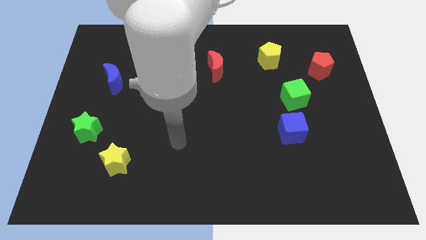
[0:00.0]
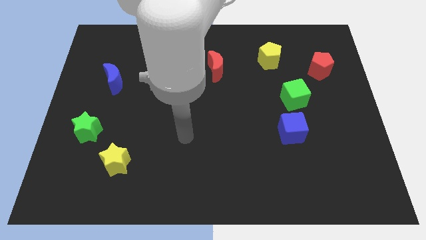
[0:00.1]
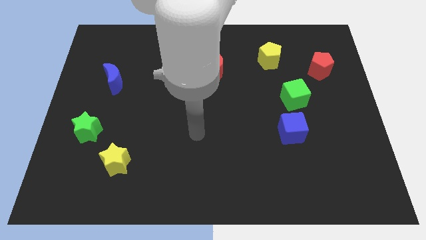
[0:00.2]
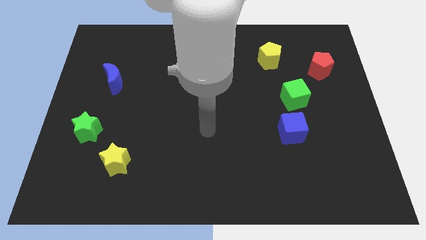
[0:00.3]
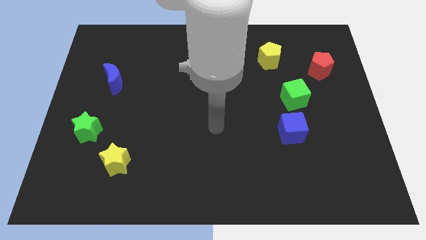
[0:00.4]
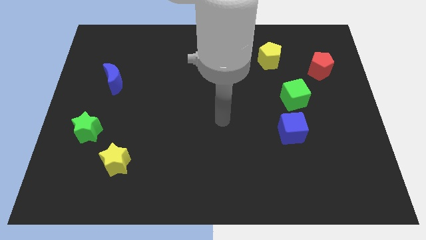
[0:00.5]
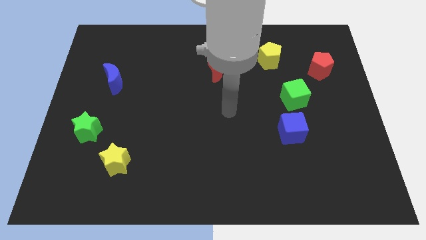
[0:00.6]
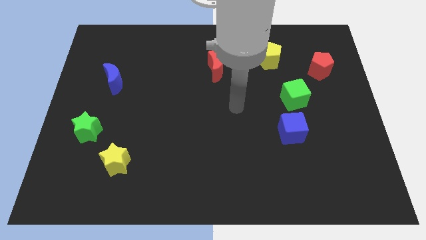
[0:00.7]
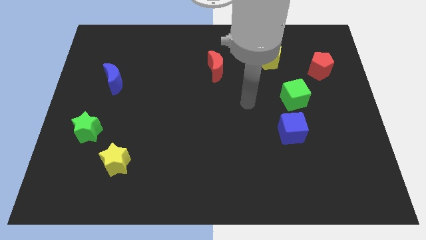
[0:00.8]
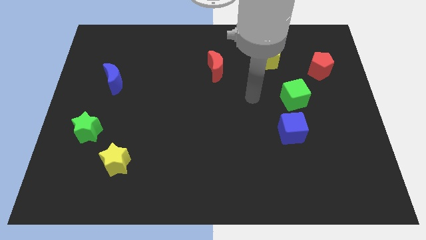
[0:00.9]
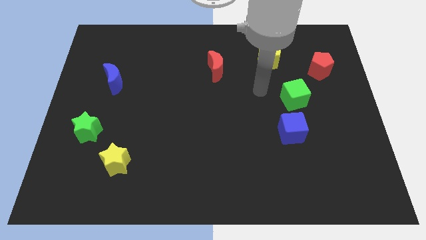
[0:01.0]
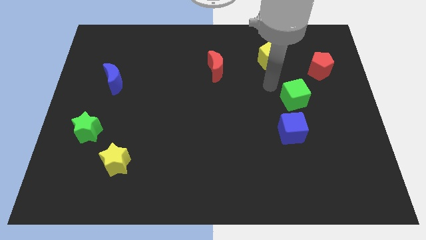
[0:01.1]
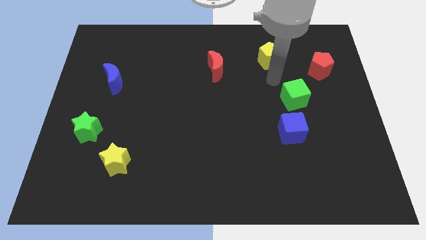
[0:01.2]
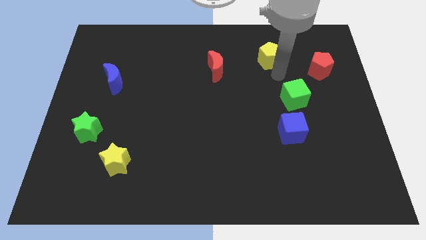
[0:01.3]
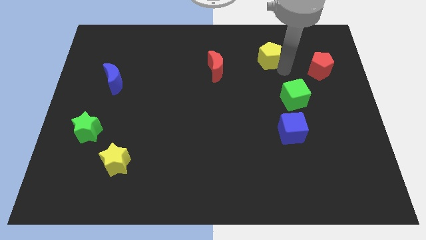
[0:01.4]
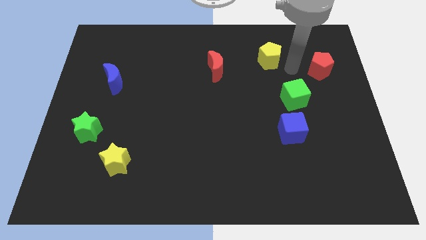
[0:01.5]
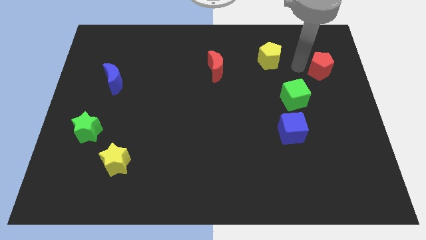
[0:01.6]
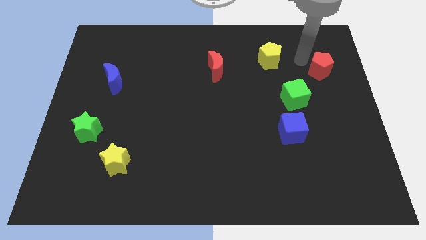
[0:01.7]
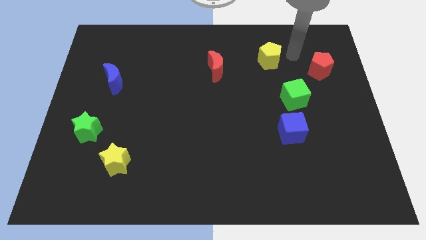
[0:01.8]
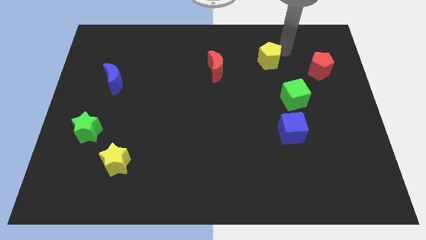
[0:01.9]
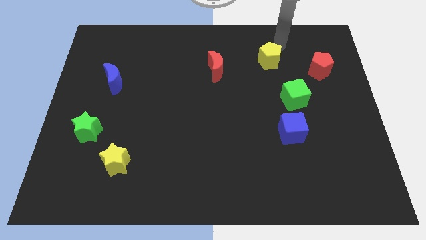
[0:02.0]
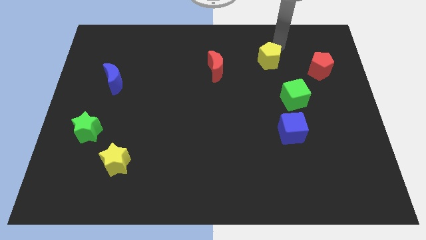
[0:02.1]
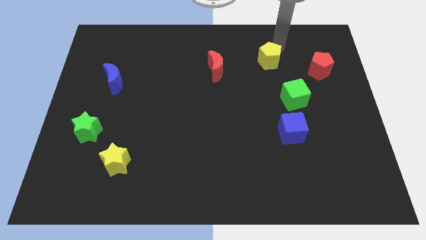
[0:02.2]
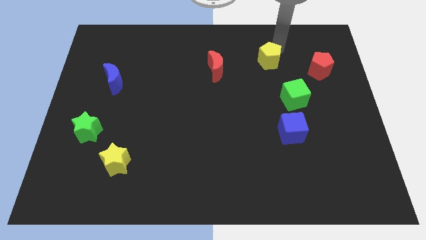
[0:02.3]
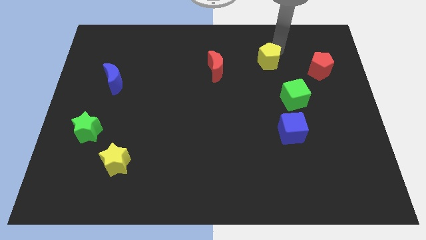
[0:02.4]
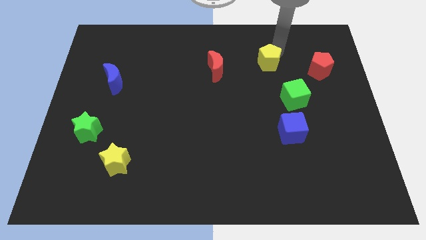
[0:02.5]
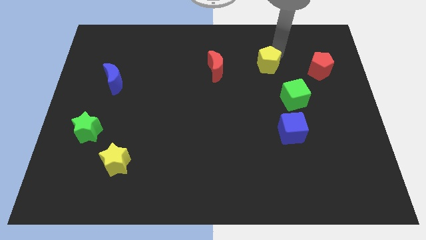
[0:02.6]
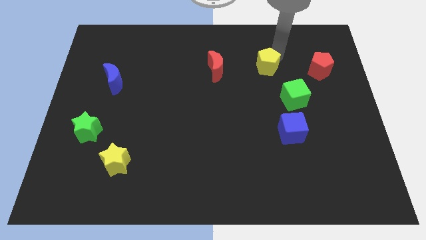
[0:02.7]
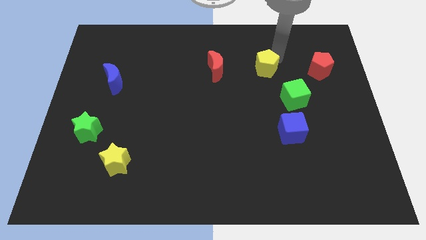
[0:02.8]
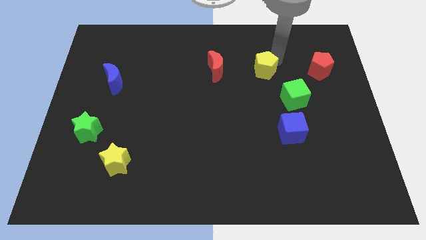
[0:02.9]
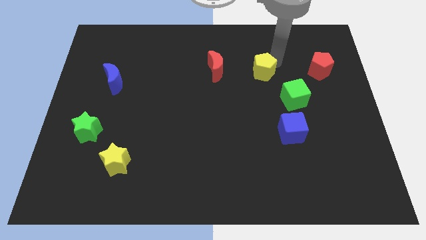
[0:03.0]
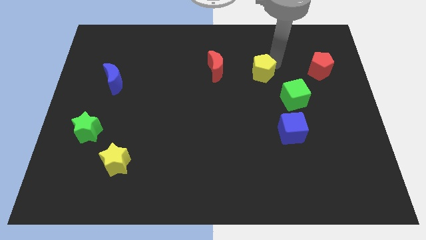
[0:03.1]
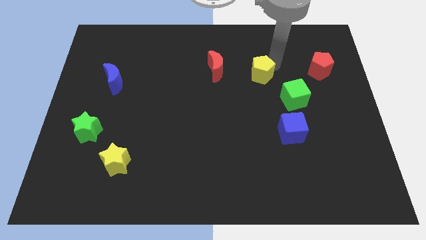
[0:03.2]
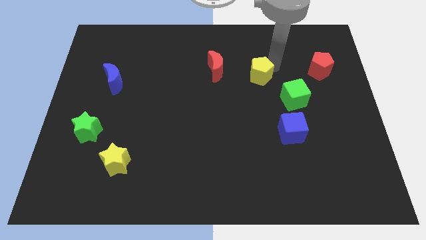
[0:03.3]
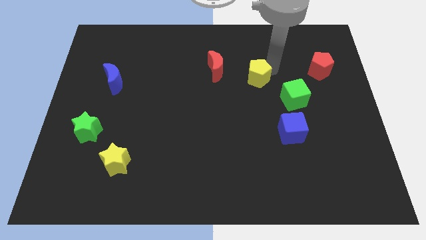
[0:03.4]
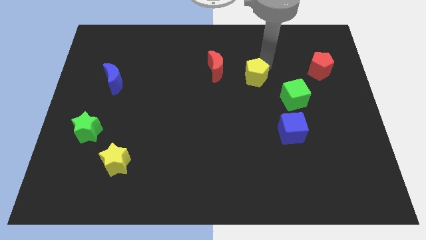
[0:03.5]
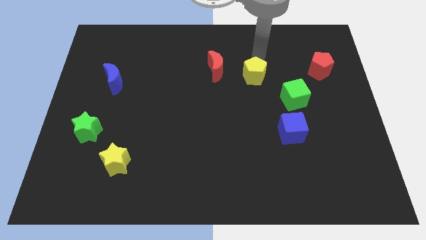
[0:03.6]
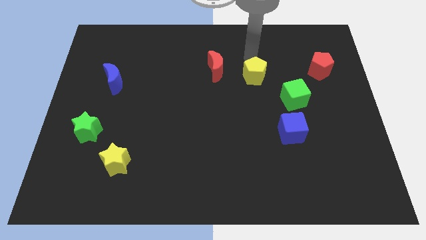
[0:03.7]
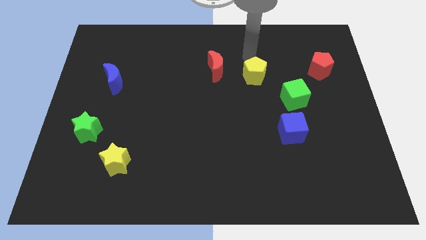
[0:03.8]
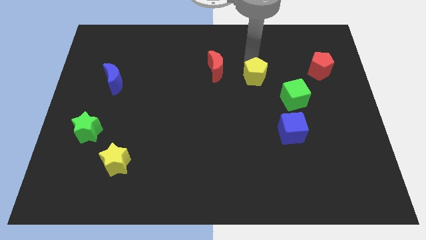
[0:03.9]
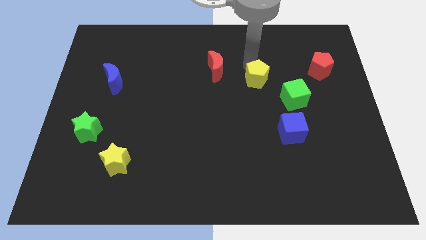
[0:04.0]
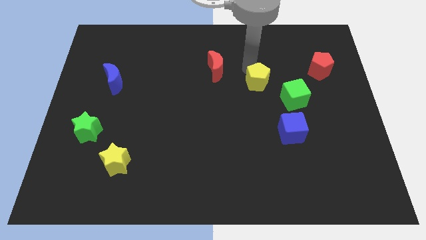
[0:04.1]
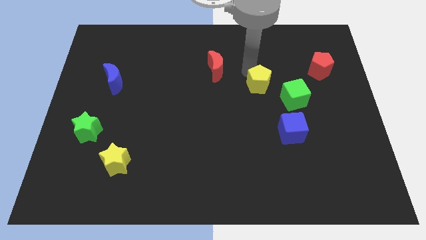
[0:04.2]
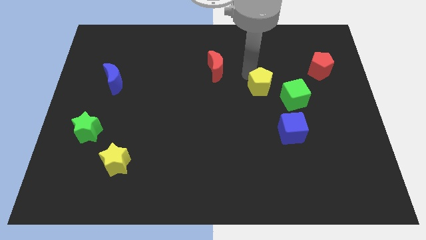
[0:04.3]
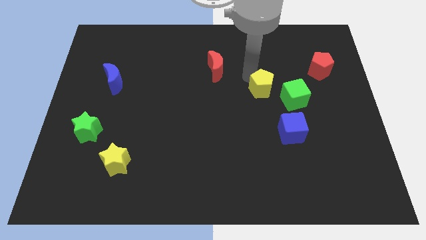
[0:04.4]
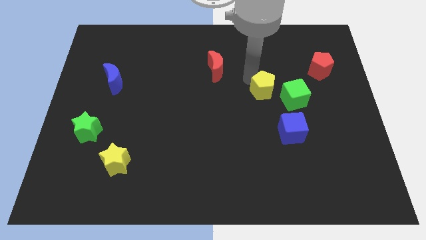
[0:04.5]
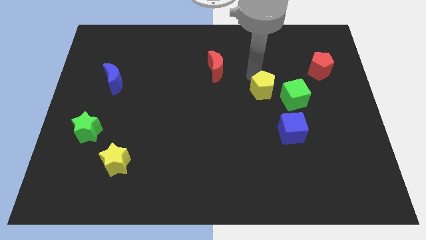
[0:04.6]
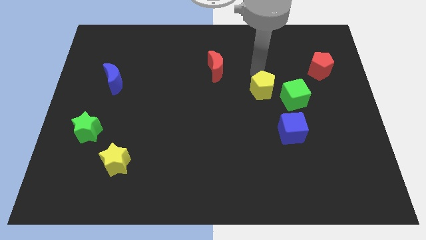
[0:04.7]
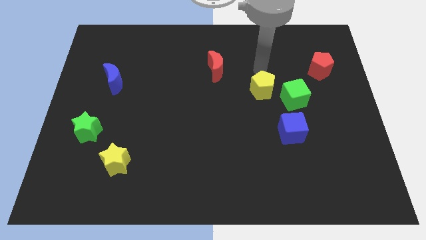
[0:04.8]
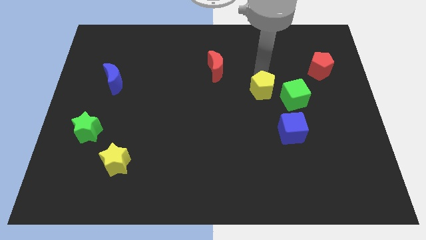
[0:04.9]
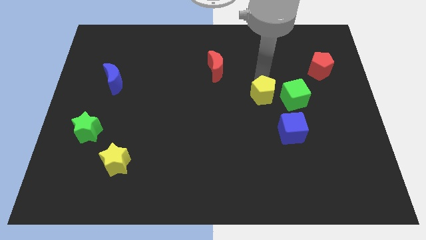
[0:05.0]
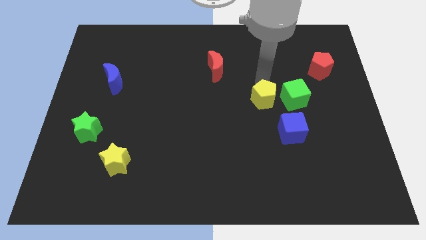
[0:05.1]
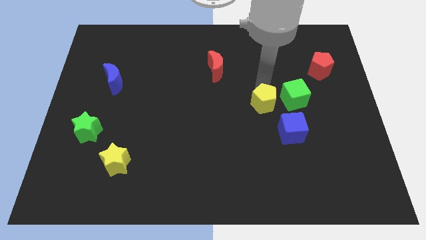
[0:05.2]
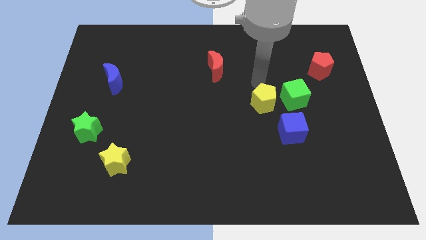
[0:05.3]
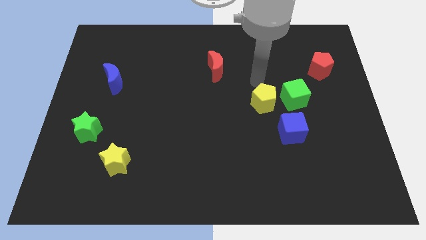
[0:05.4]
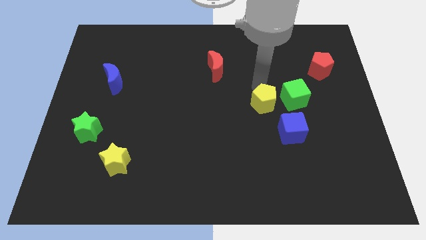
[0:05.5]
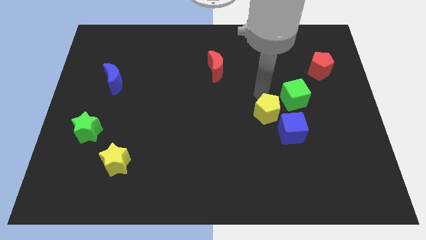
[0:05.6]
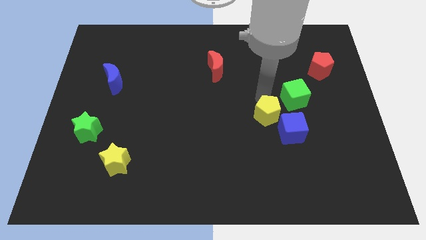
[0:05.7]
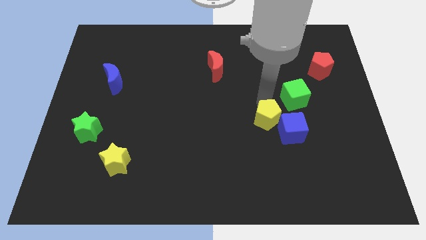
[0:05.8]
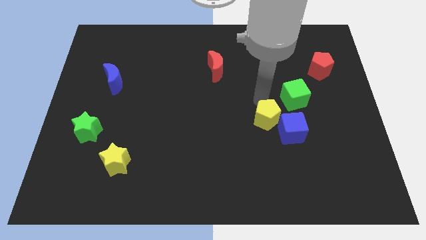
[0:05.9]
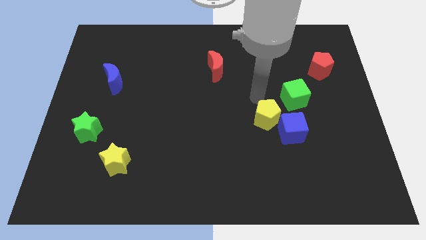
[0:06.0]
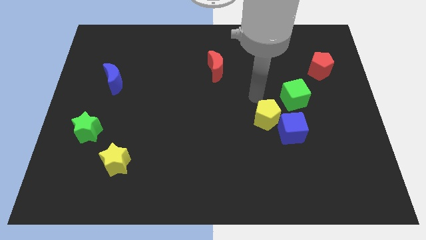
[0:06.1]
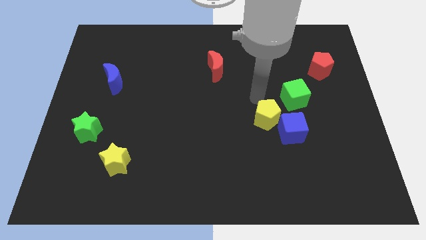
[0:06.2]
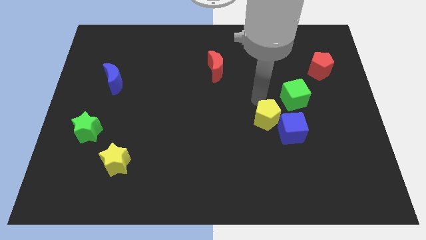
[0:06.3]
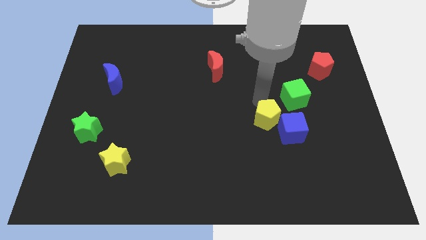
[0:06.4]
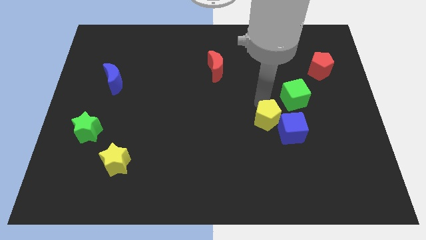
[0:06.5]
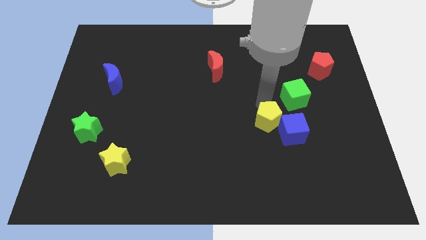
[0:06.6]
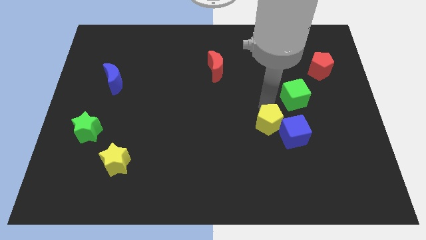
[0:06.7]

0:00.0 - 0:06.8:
push the yellow pentagon downwards

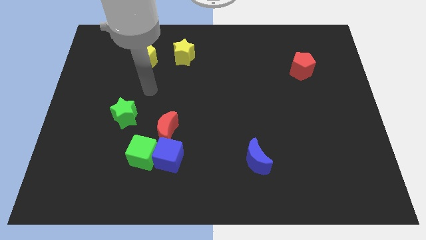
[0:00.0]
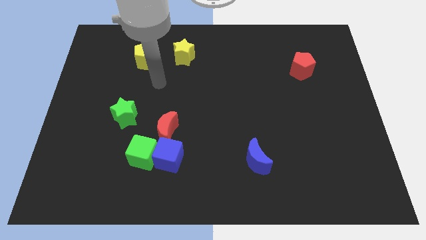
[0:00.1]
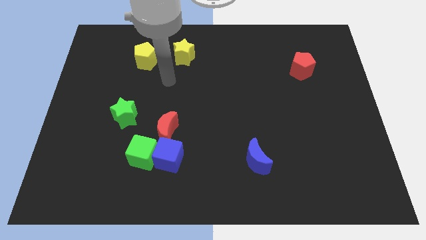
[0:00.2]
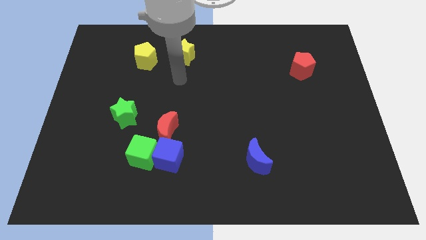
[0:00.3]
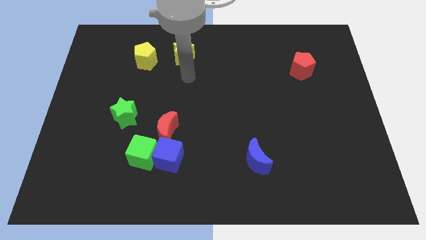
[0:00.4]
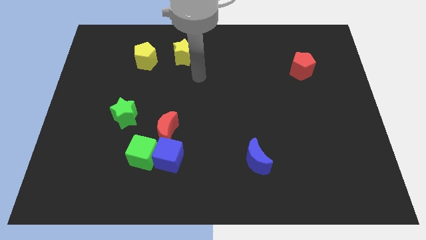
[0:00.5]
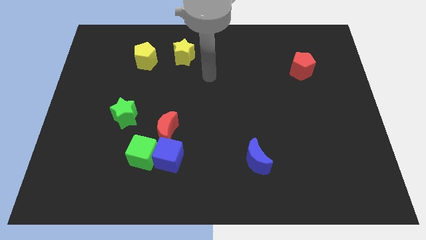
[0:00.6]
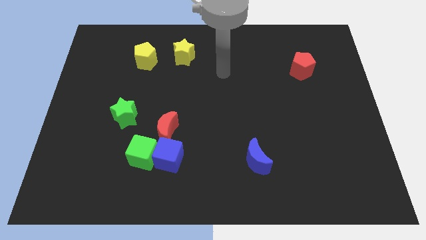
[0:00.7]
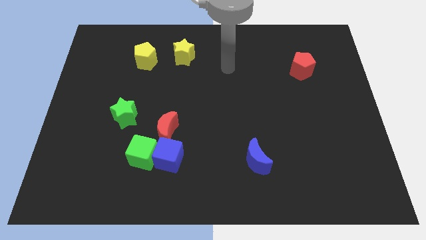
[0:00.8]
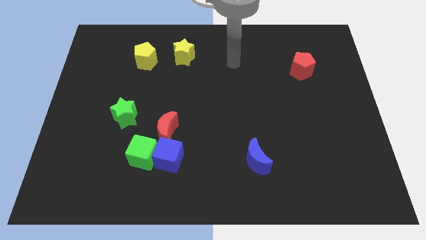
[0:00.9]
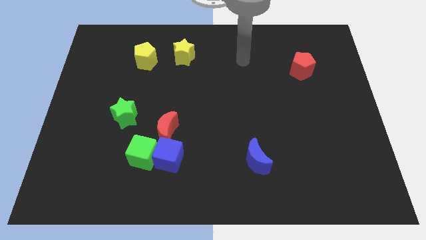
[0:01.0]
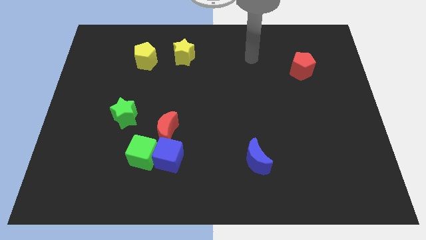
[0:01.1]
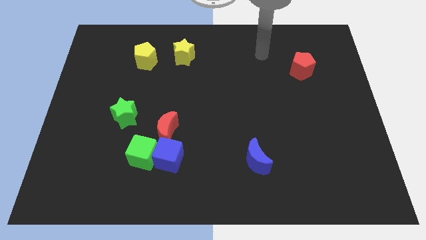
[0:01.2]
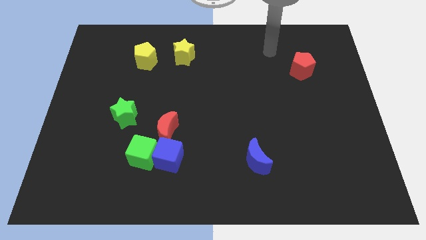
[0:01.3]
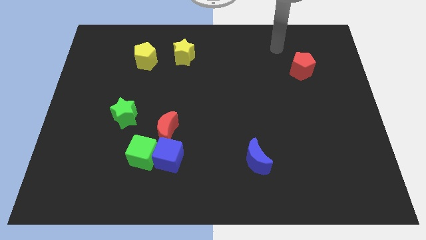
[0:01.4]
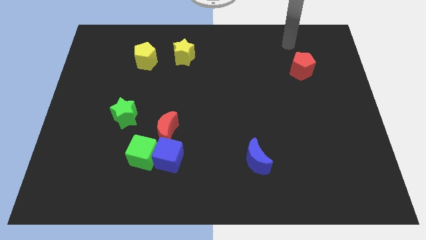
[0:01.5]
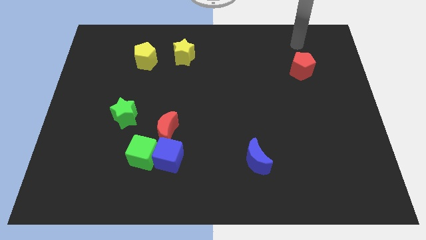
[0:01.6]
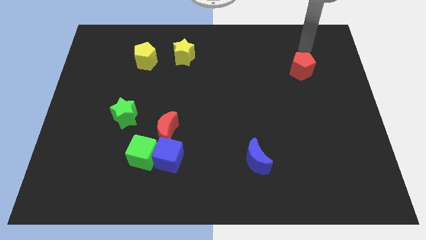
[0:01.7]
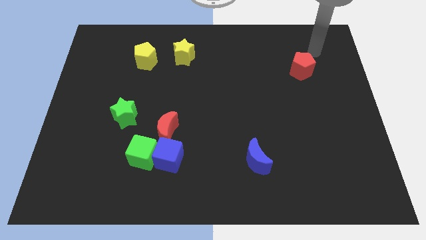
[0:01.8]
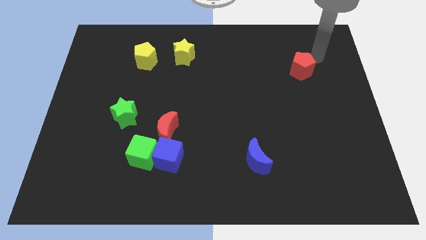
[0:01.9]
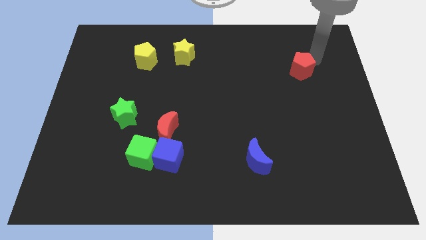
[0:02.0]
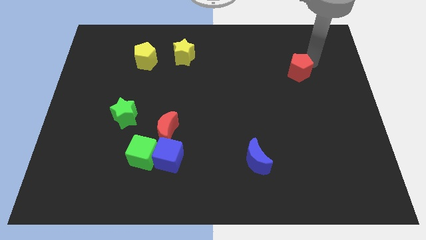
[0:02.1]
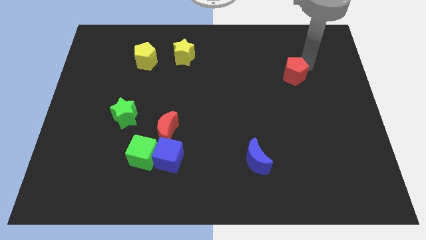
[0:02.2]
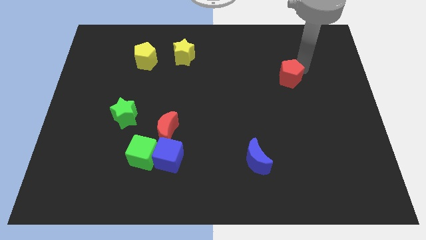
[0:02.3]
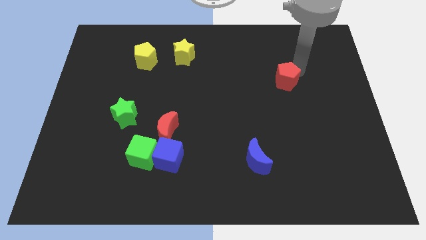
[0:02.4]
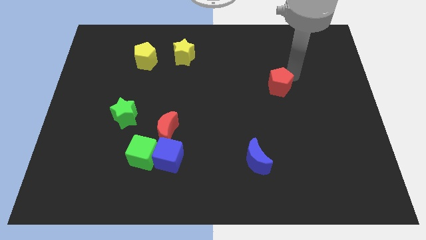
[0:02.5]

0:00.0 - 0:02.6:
push the red pentagon downwards and then left a bit
